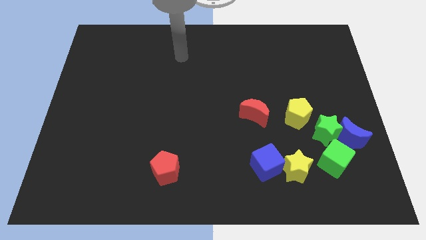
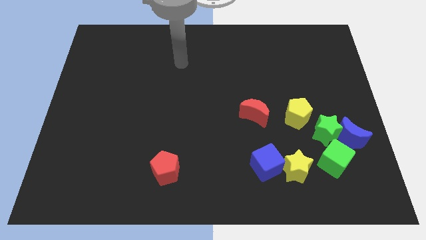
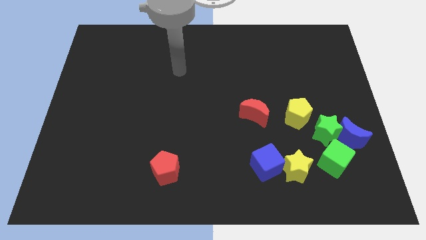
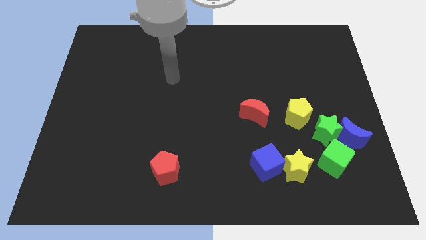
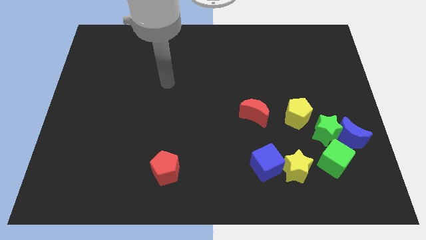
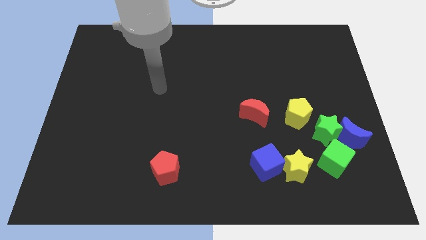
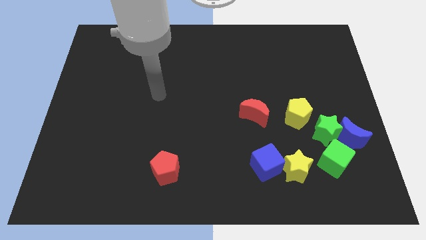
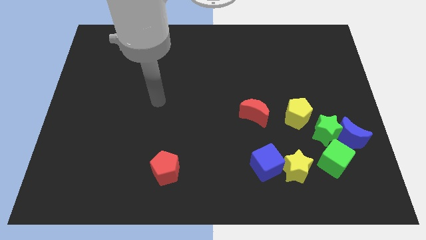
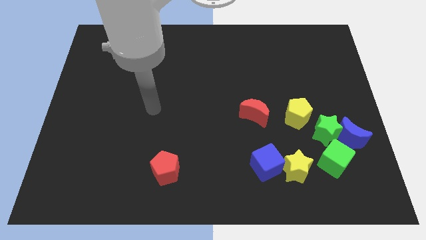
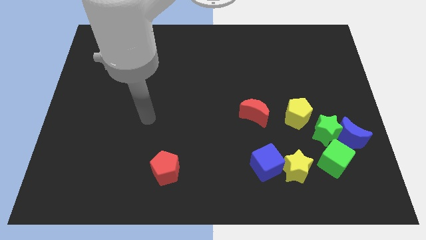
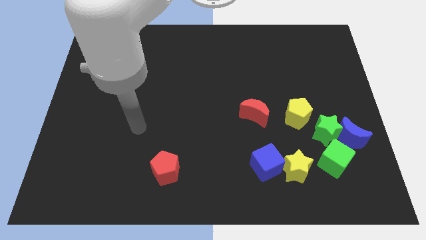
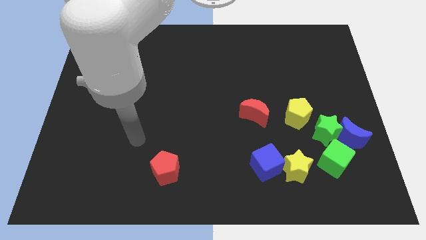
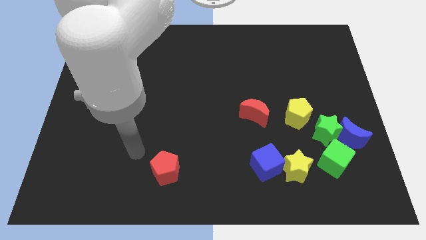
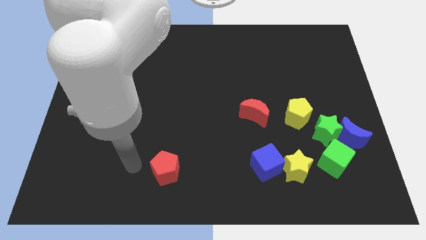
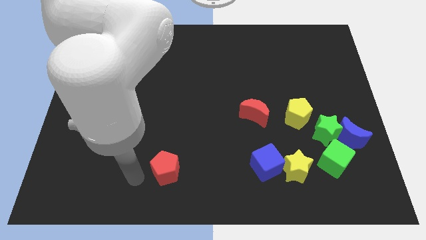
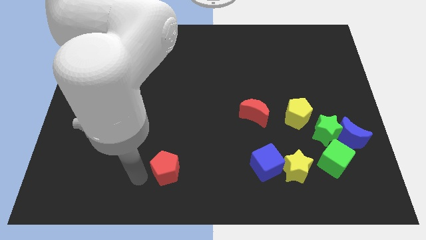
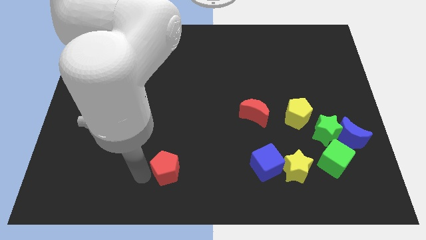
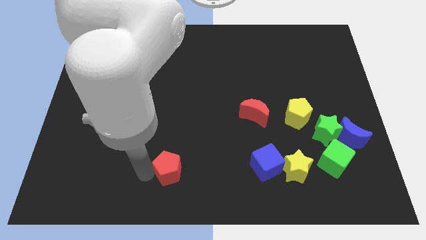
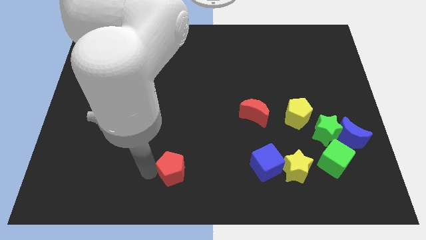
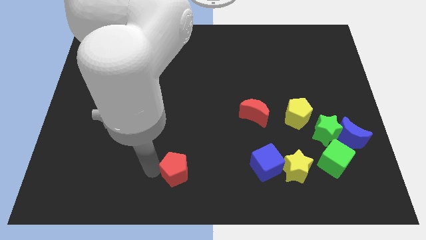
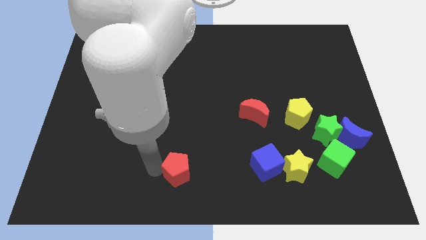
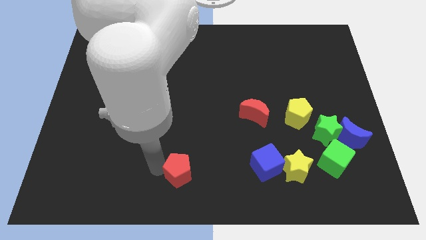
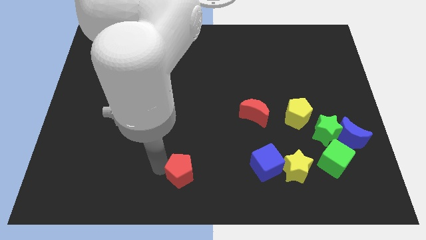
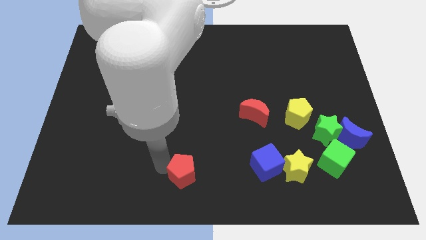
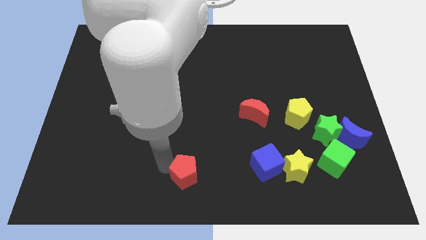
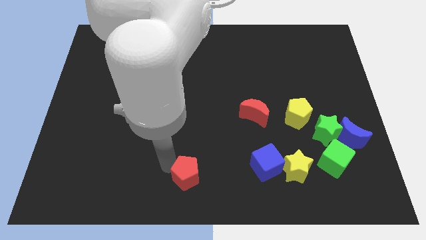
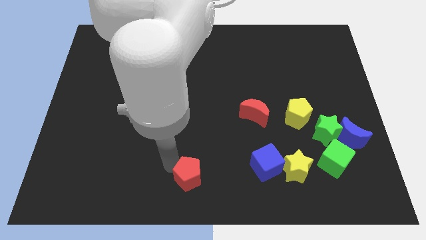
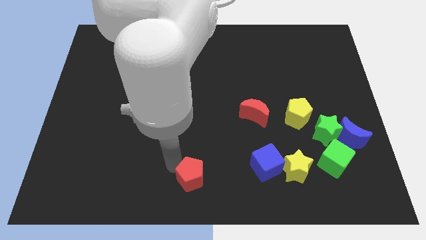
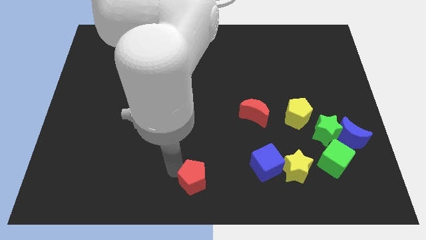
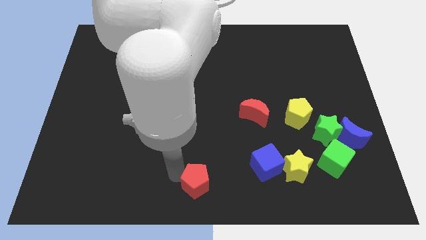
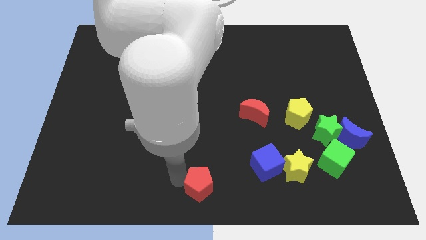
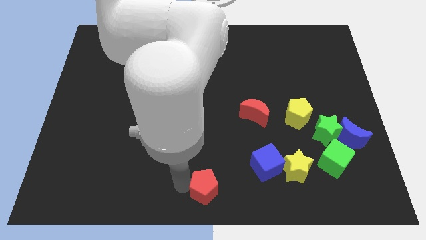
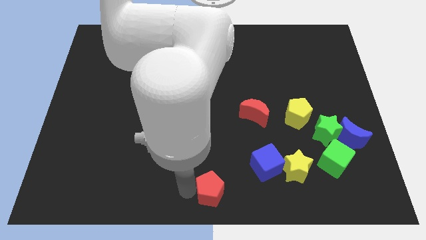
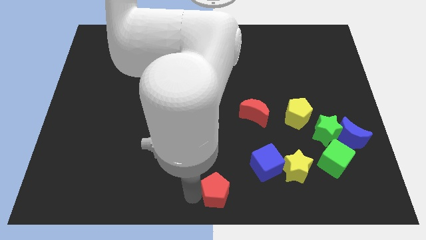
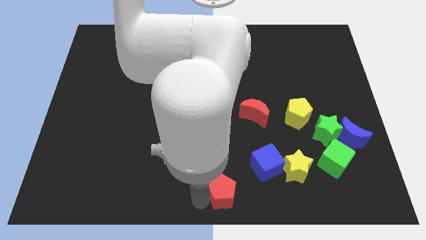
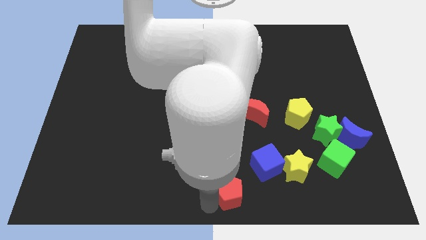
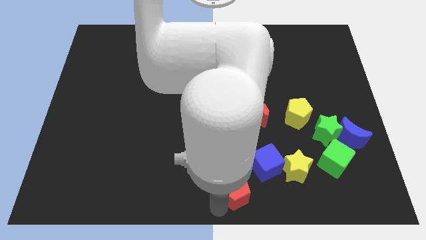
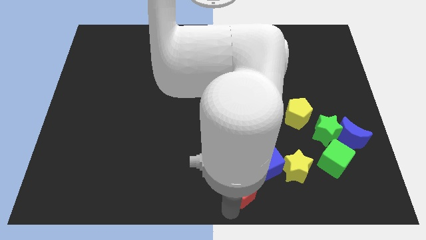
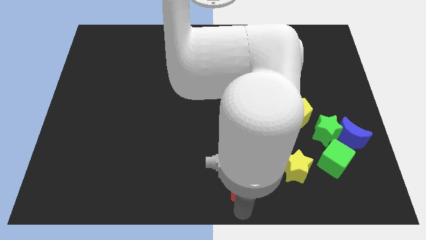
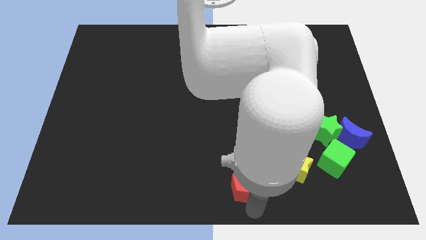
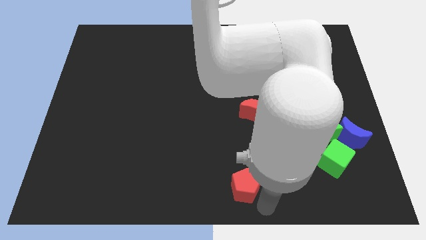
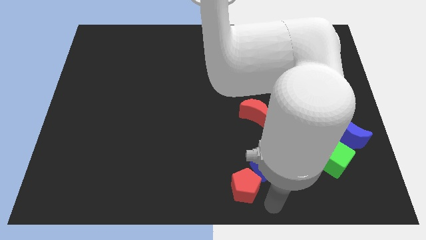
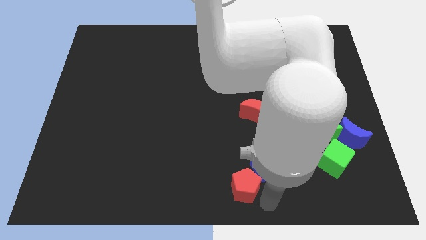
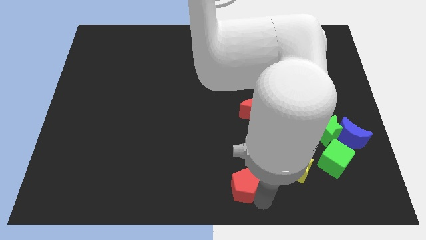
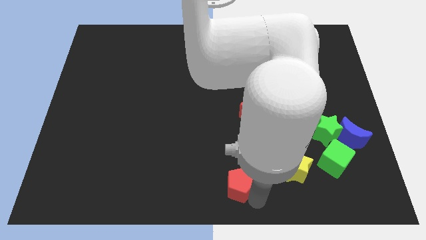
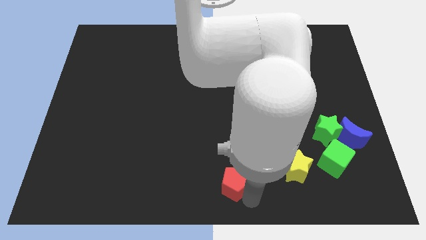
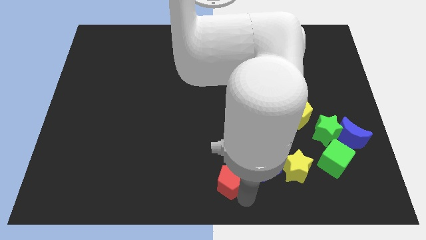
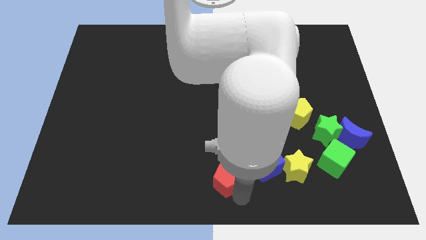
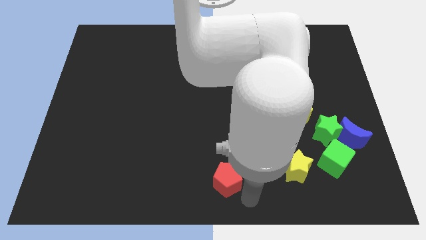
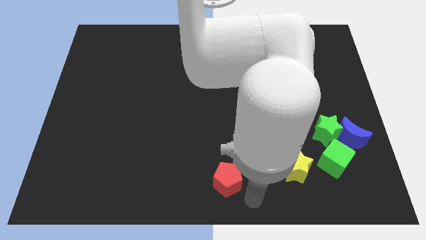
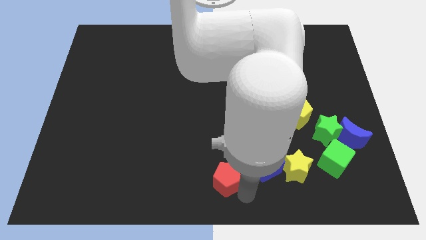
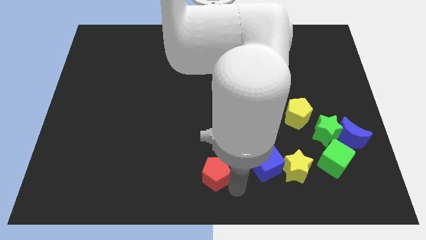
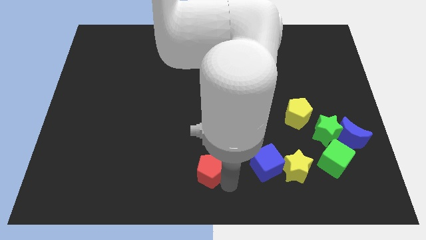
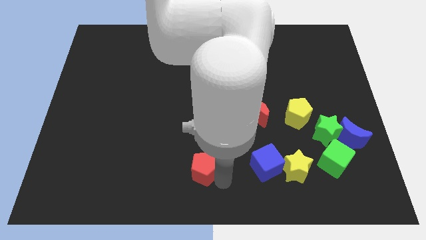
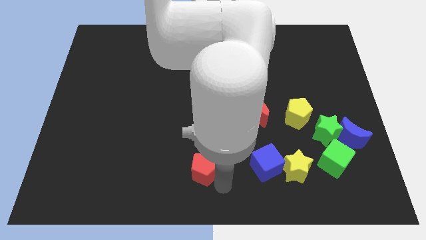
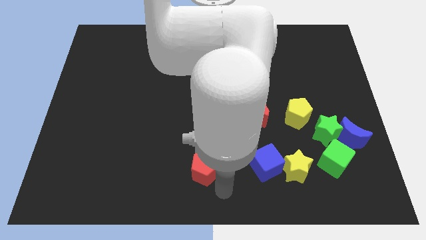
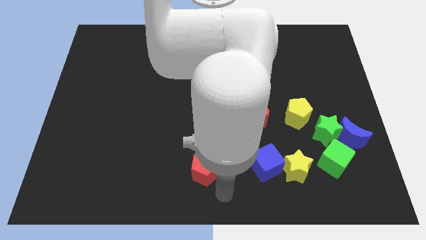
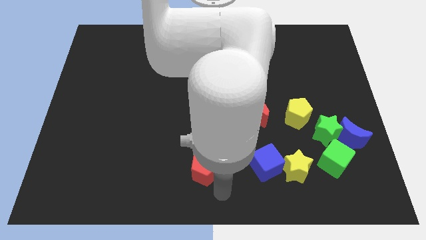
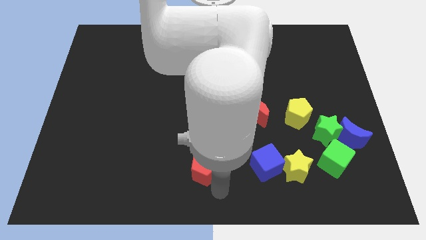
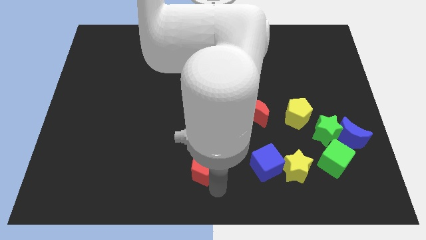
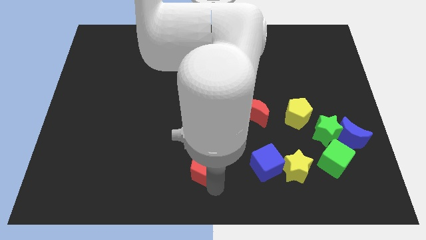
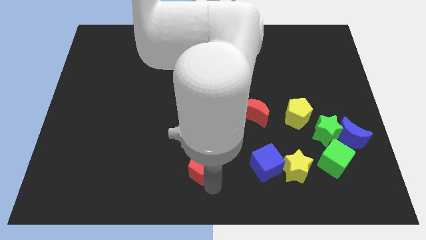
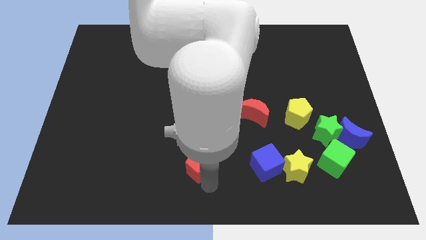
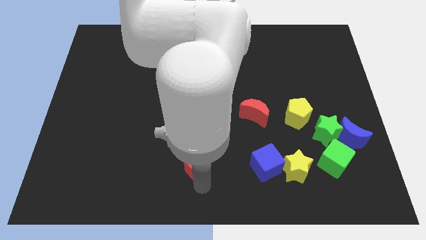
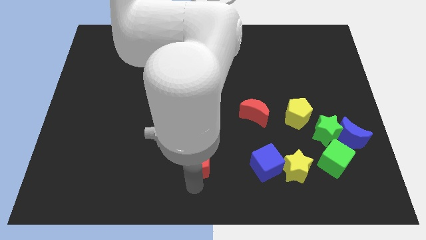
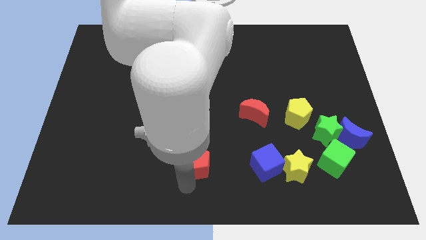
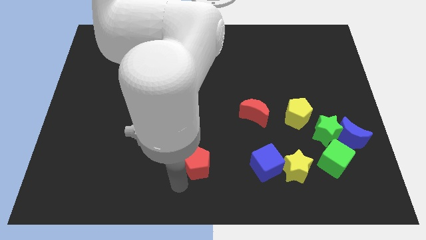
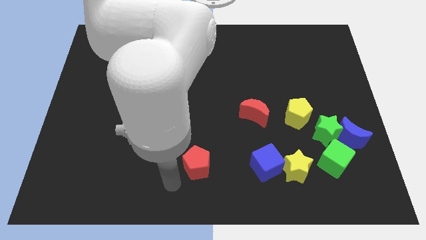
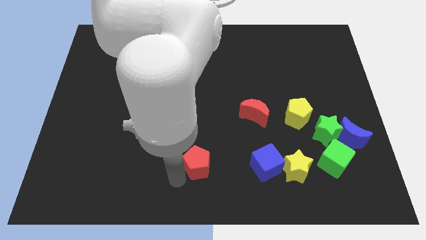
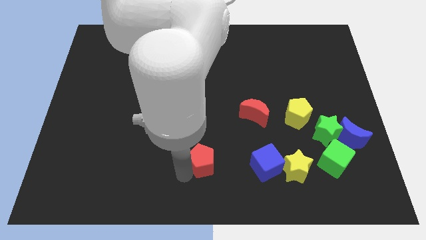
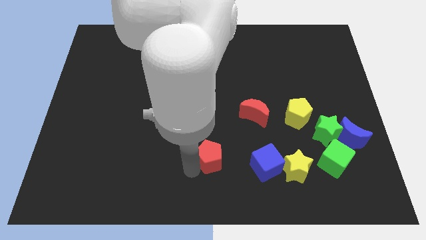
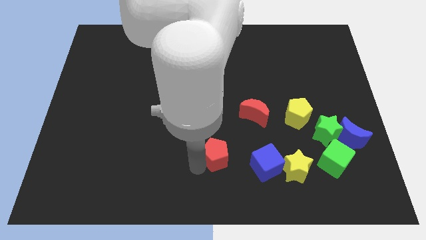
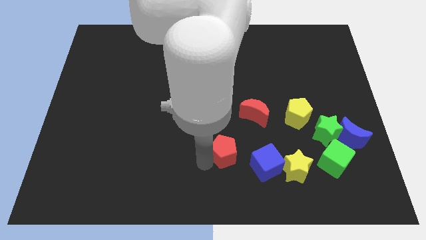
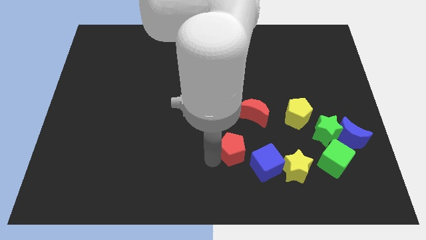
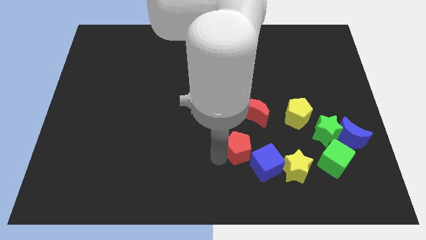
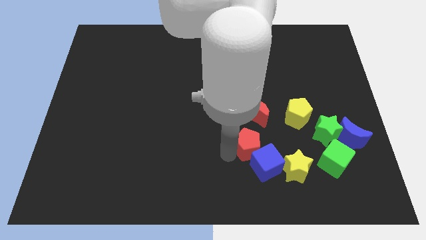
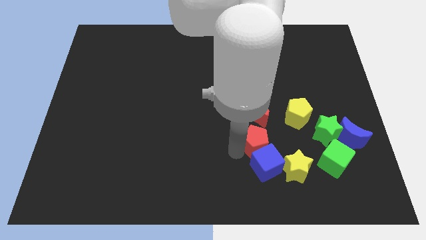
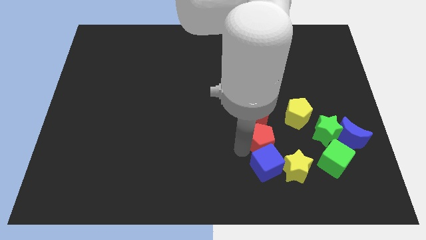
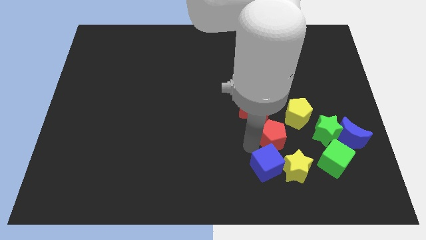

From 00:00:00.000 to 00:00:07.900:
push the red pentagon to the top of the yellow star
